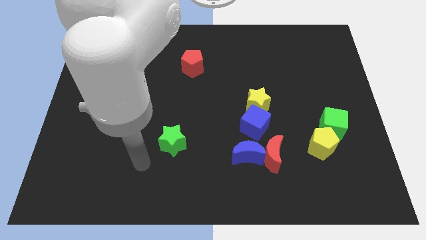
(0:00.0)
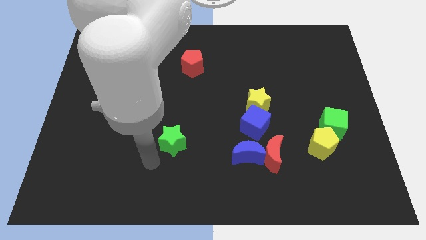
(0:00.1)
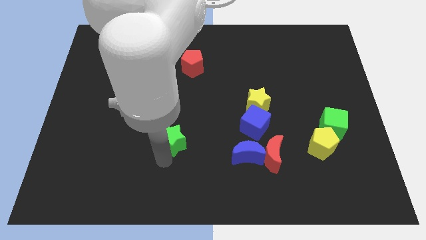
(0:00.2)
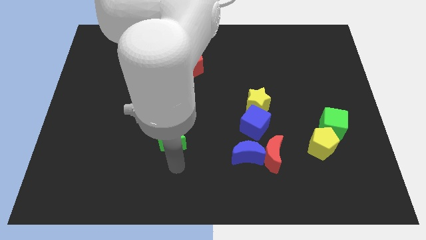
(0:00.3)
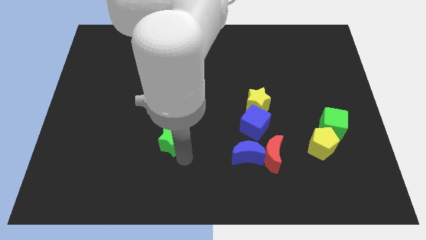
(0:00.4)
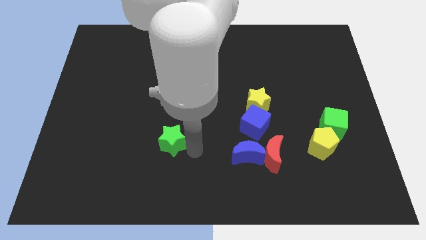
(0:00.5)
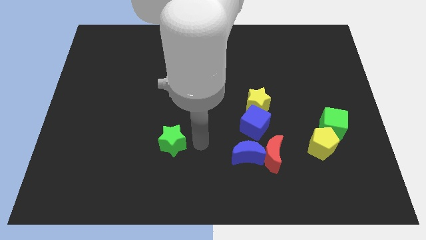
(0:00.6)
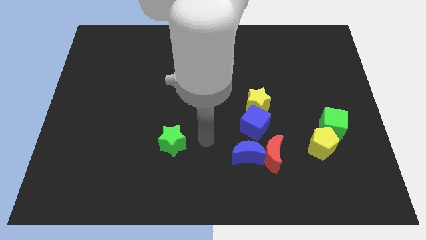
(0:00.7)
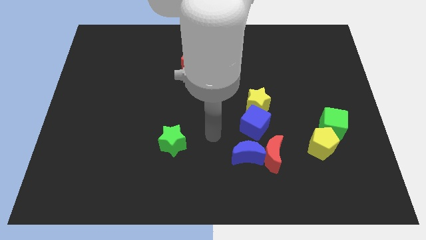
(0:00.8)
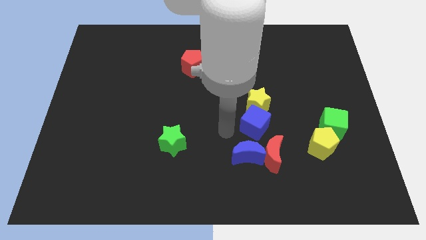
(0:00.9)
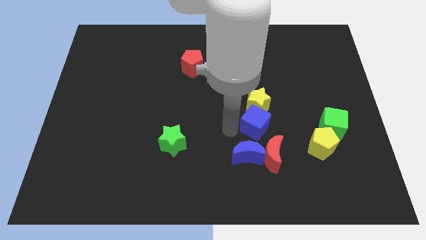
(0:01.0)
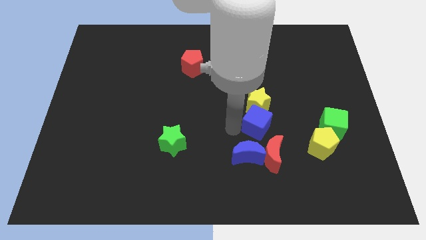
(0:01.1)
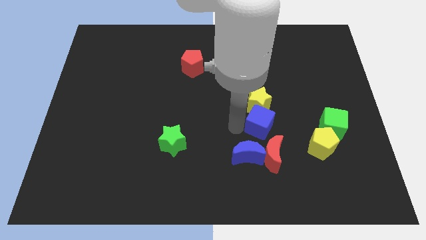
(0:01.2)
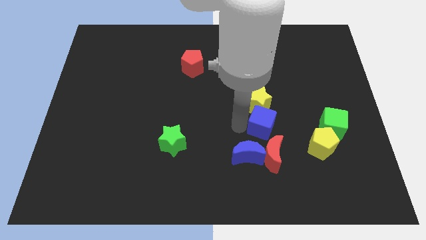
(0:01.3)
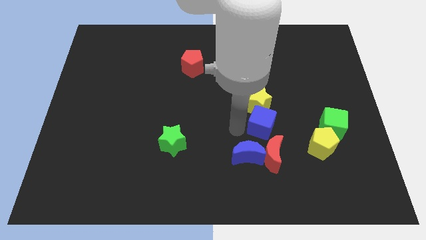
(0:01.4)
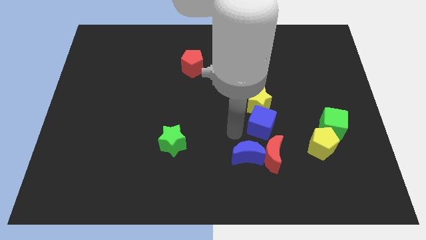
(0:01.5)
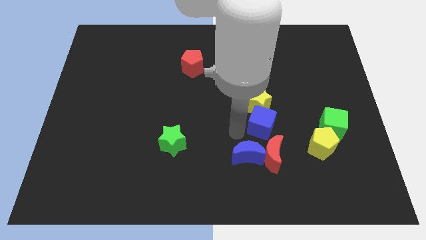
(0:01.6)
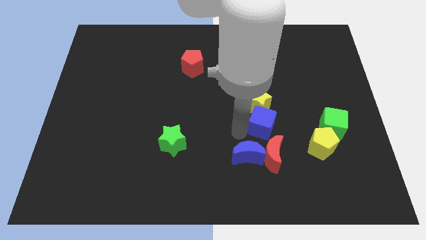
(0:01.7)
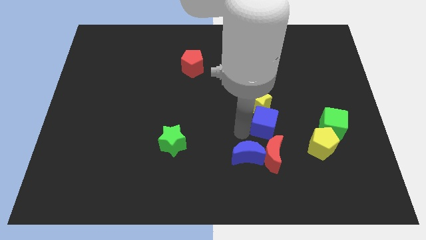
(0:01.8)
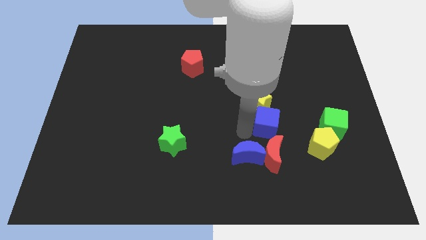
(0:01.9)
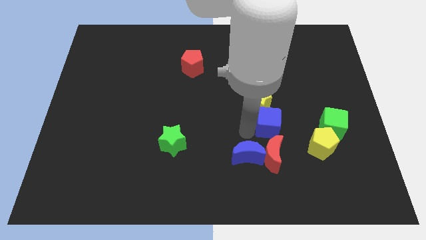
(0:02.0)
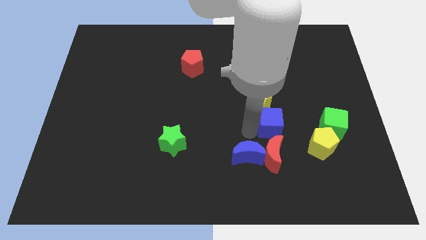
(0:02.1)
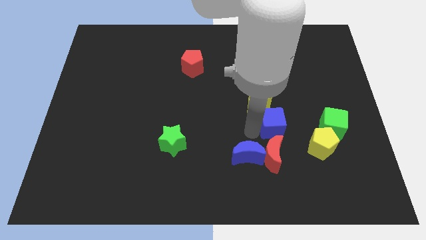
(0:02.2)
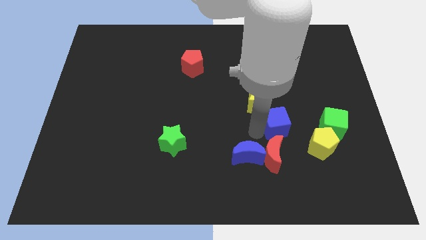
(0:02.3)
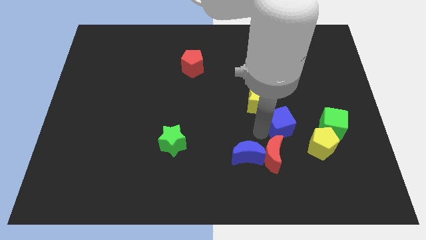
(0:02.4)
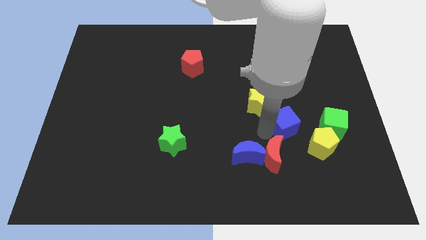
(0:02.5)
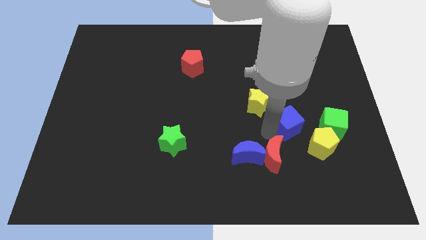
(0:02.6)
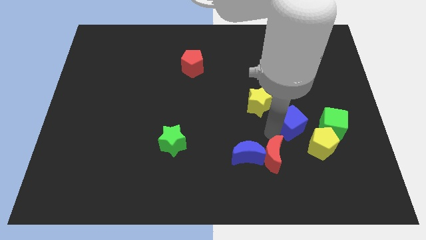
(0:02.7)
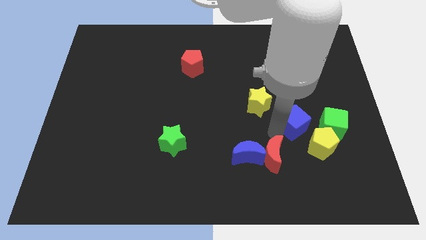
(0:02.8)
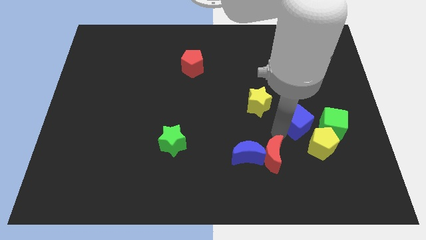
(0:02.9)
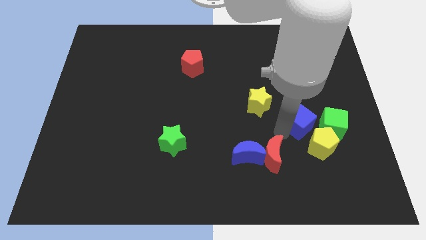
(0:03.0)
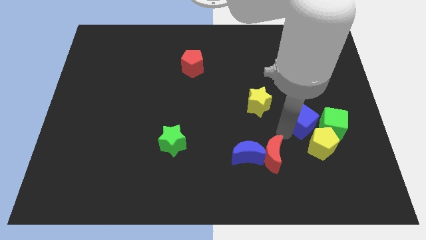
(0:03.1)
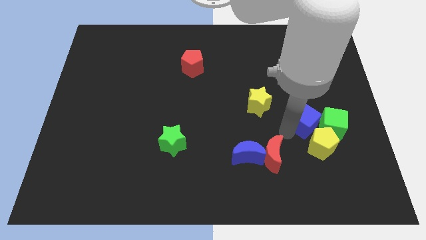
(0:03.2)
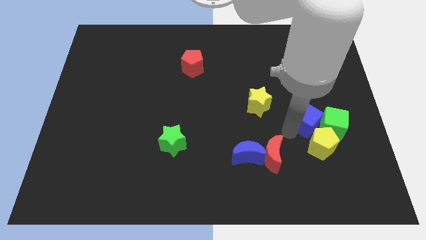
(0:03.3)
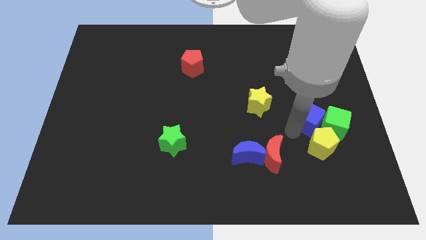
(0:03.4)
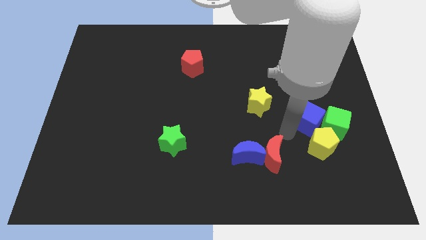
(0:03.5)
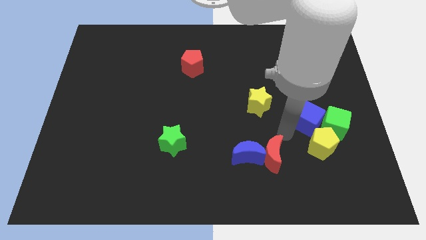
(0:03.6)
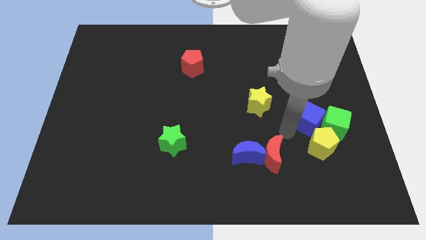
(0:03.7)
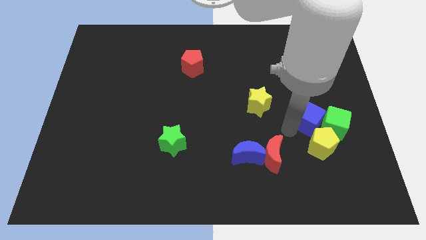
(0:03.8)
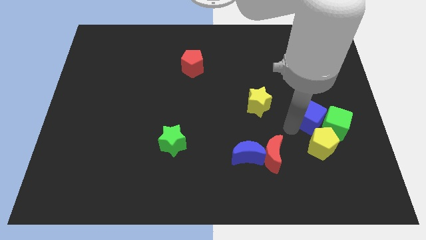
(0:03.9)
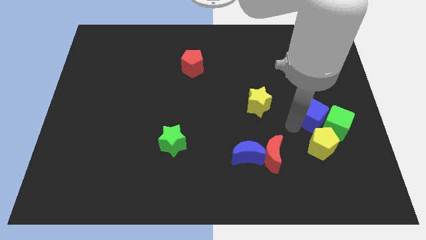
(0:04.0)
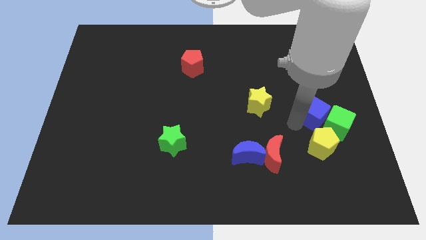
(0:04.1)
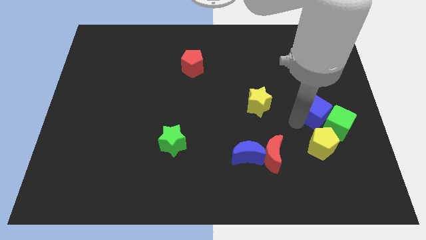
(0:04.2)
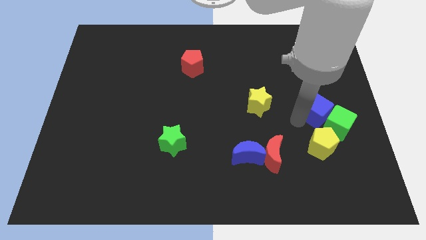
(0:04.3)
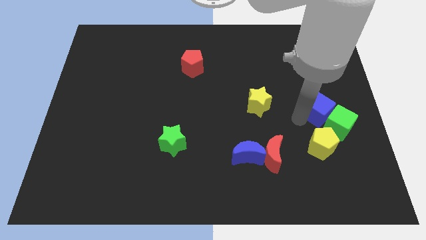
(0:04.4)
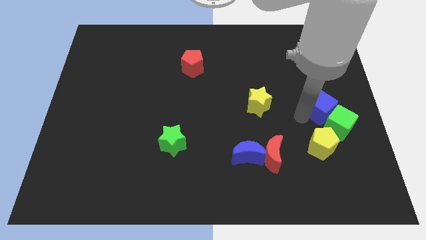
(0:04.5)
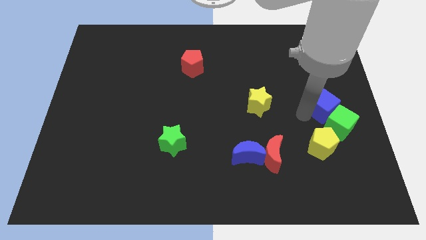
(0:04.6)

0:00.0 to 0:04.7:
slide the blue cube to the center right

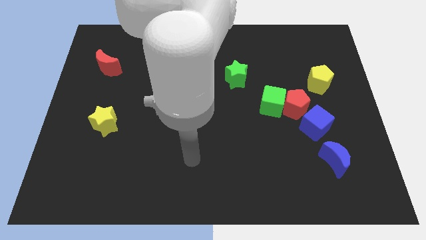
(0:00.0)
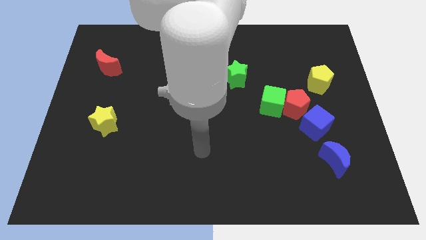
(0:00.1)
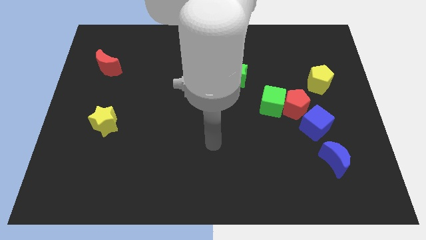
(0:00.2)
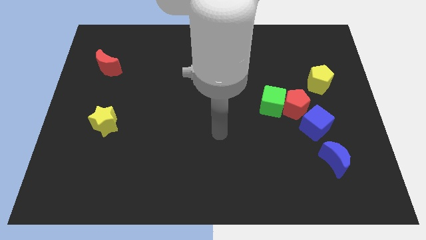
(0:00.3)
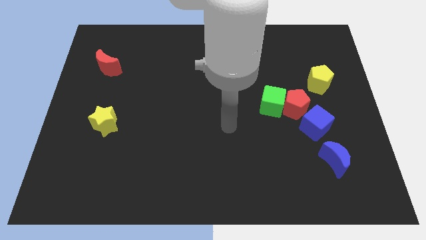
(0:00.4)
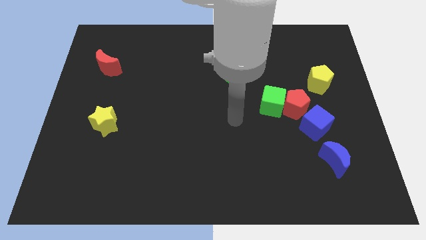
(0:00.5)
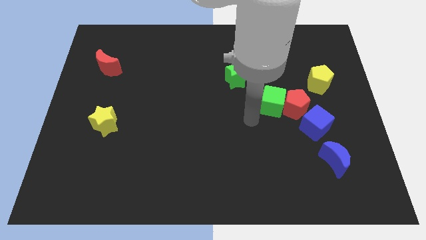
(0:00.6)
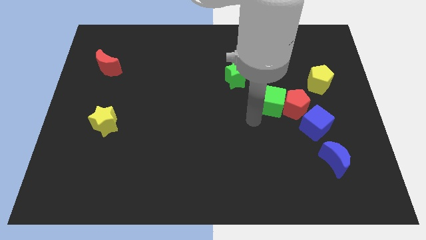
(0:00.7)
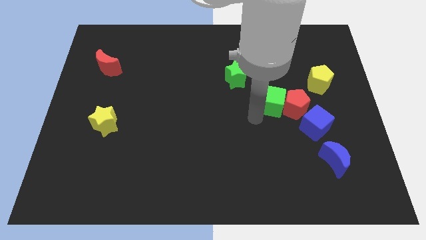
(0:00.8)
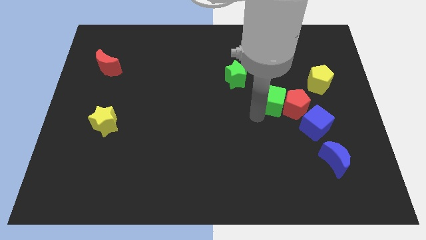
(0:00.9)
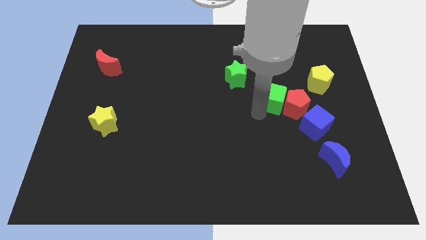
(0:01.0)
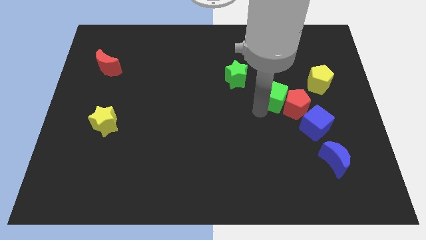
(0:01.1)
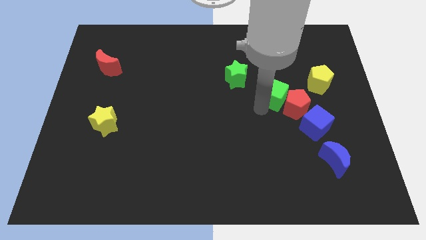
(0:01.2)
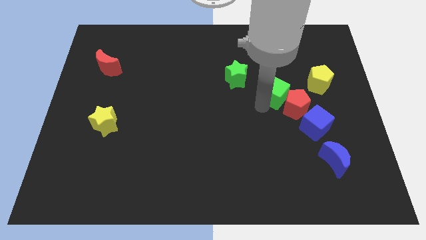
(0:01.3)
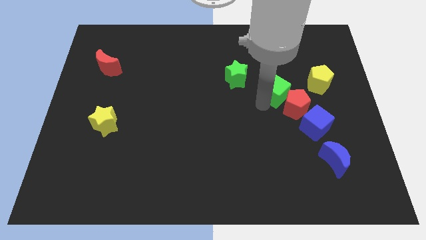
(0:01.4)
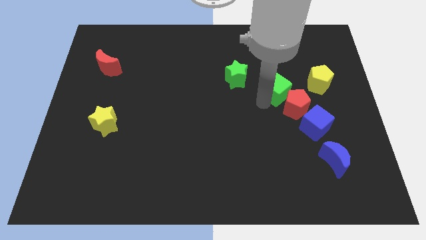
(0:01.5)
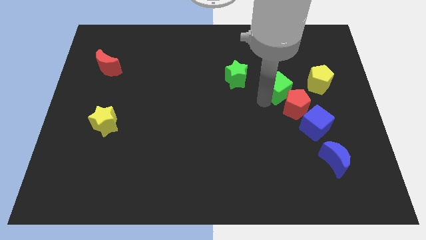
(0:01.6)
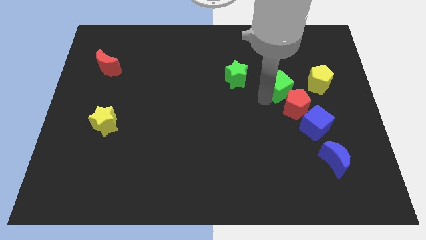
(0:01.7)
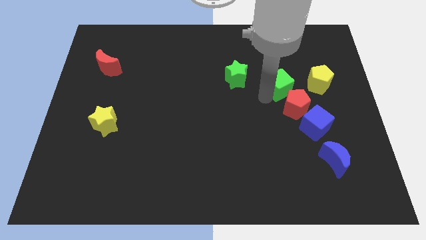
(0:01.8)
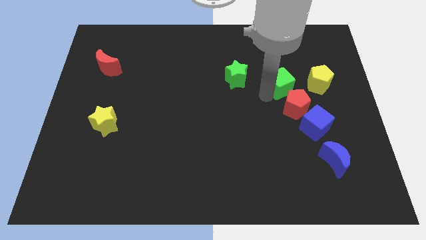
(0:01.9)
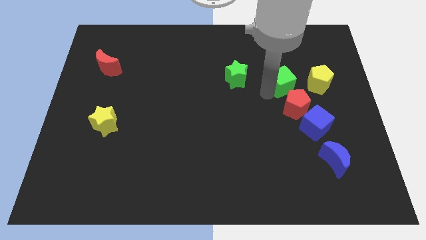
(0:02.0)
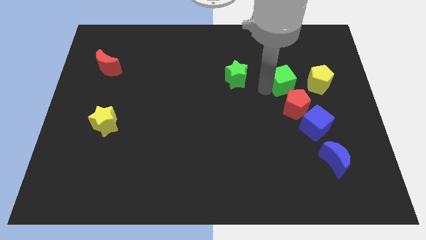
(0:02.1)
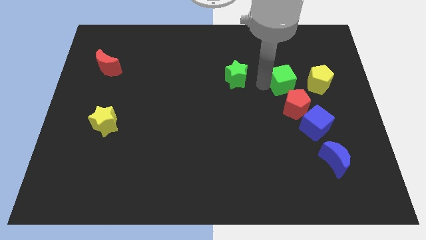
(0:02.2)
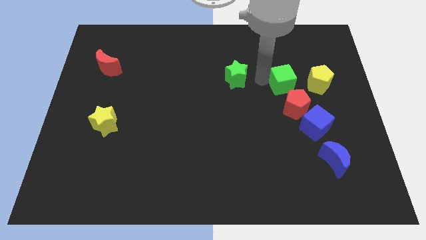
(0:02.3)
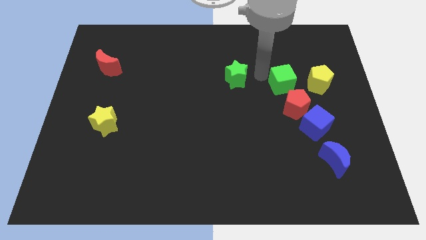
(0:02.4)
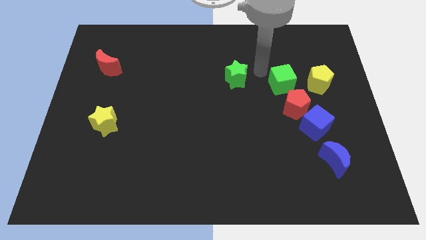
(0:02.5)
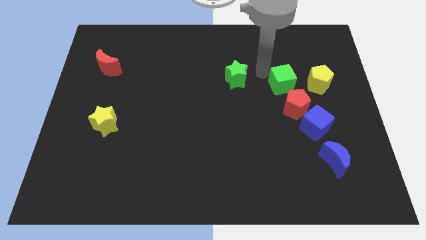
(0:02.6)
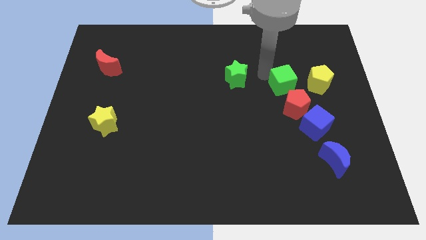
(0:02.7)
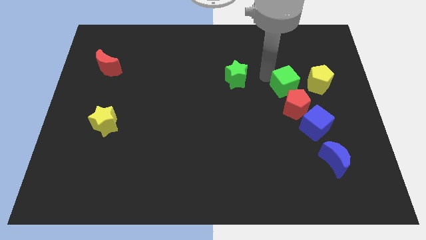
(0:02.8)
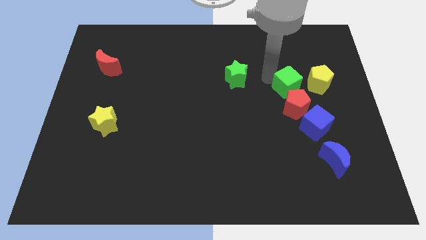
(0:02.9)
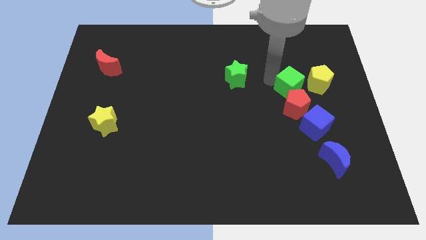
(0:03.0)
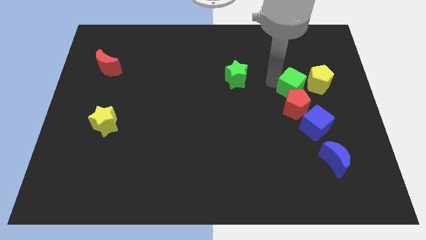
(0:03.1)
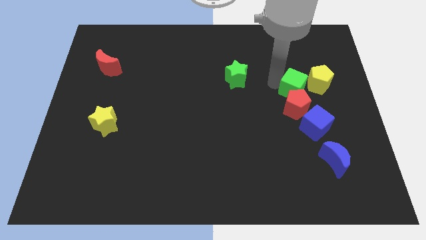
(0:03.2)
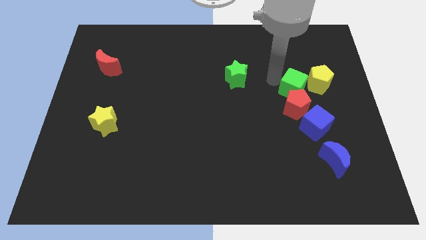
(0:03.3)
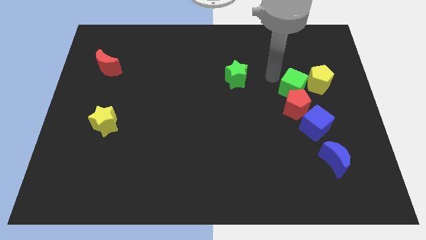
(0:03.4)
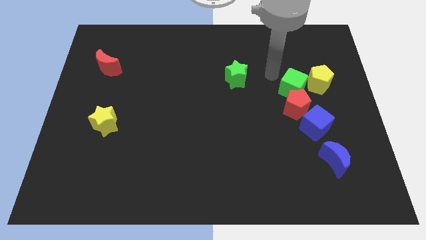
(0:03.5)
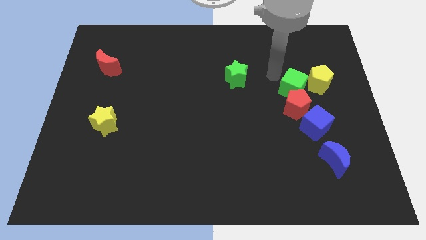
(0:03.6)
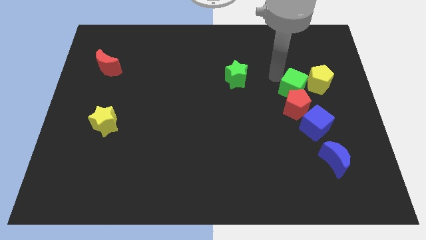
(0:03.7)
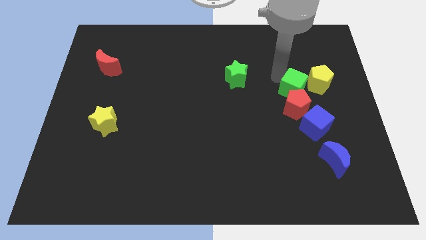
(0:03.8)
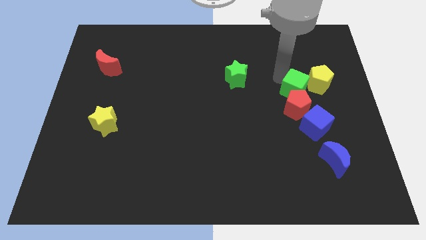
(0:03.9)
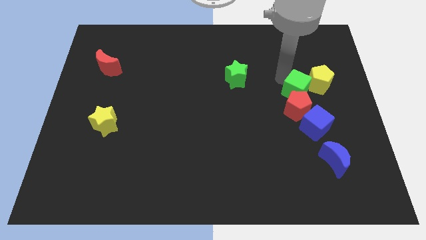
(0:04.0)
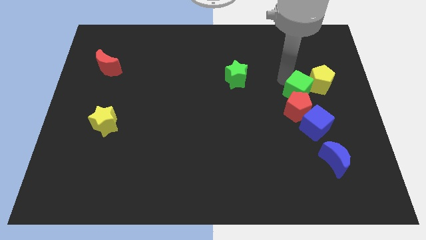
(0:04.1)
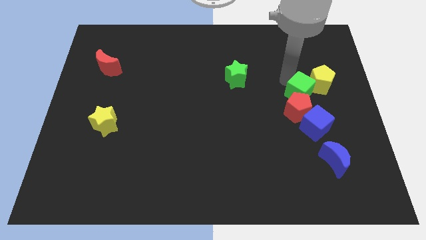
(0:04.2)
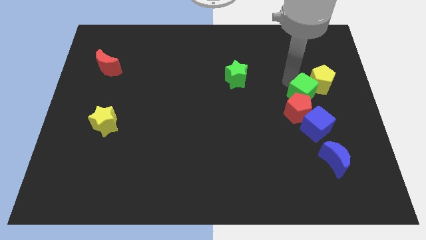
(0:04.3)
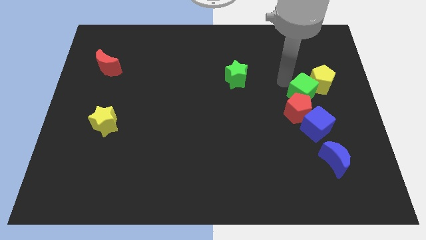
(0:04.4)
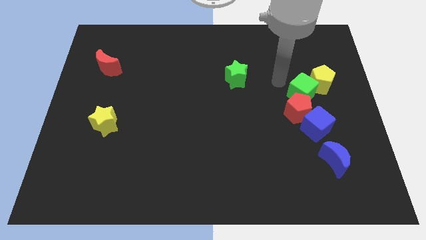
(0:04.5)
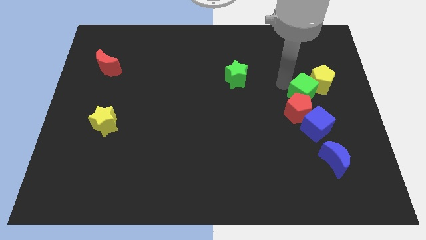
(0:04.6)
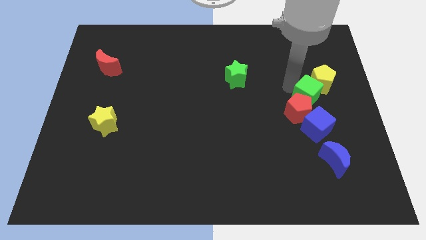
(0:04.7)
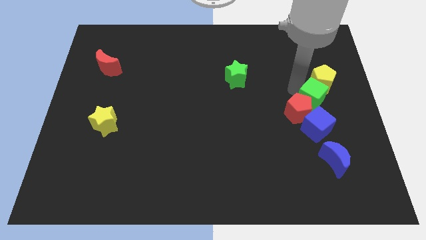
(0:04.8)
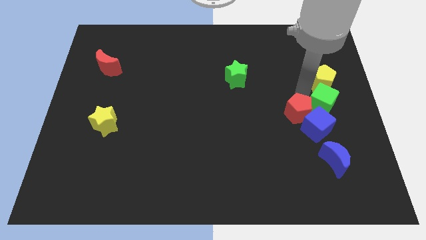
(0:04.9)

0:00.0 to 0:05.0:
slide the green cube to the right side
